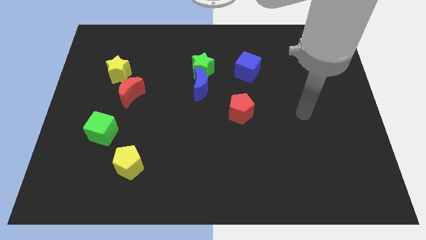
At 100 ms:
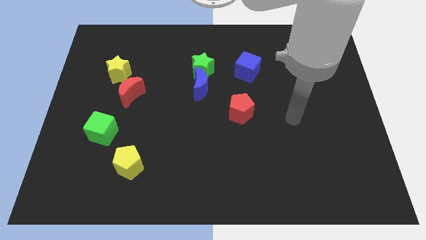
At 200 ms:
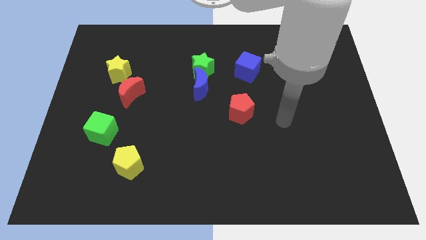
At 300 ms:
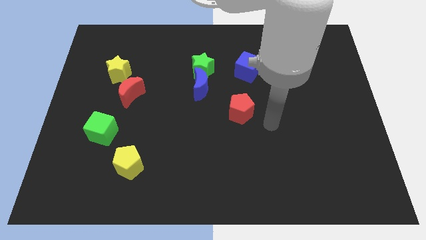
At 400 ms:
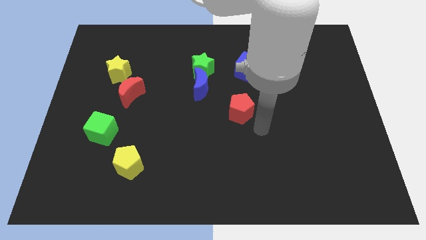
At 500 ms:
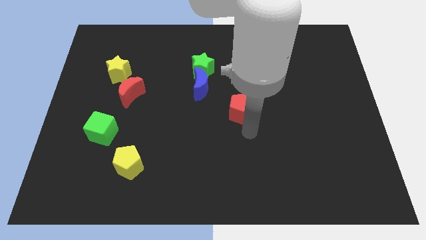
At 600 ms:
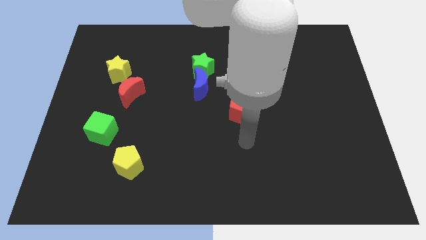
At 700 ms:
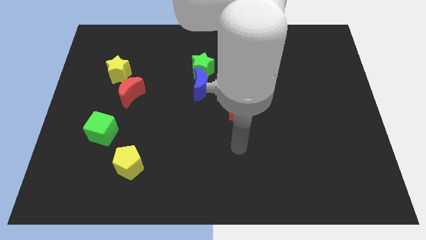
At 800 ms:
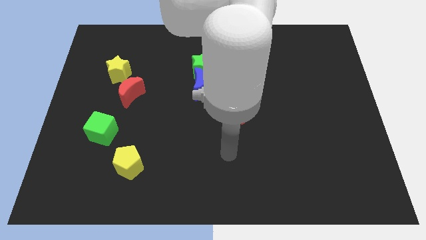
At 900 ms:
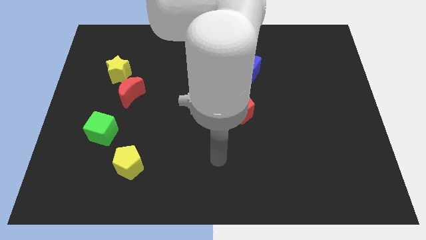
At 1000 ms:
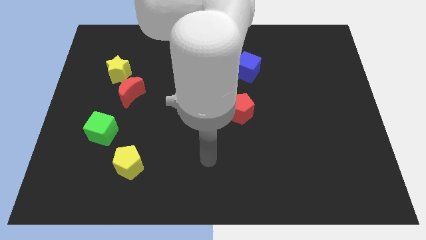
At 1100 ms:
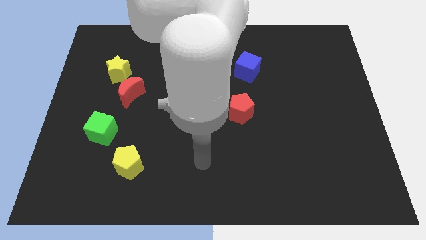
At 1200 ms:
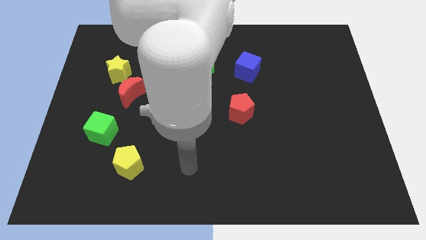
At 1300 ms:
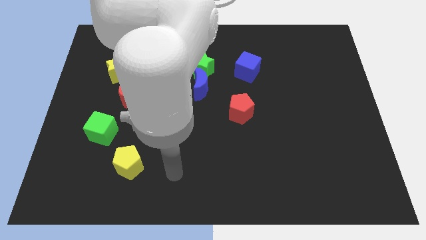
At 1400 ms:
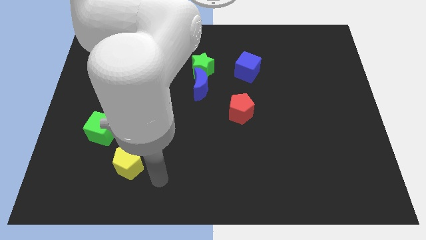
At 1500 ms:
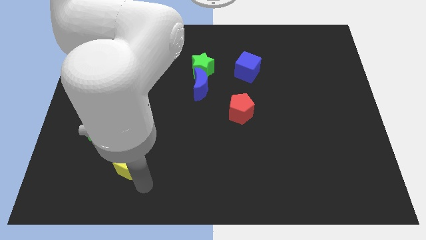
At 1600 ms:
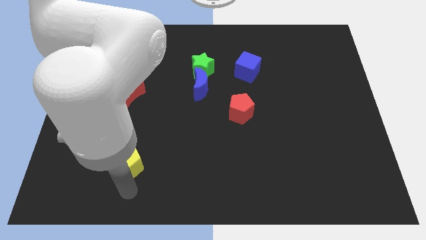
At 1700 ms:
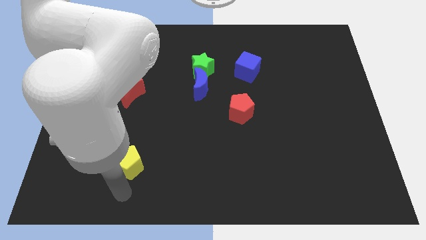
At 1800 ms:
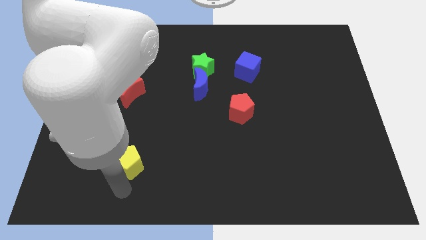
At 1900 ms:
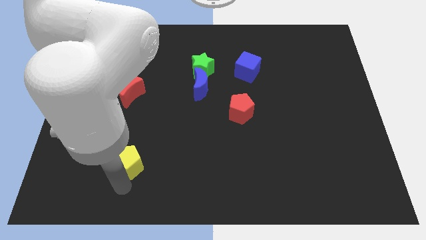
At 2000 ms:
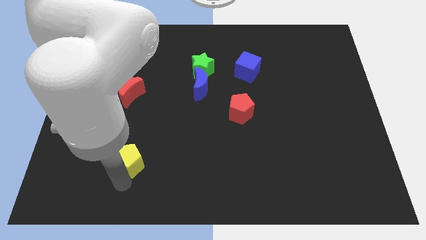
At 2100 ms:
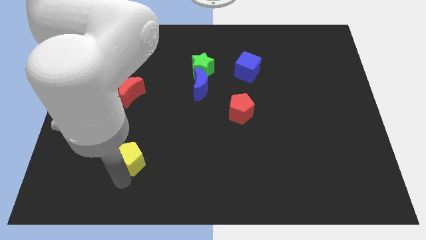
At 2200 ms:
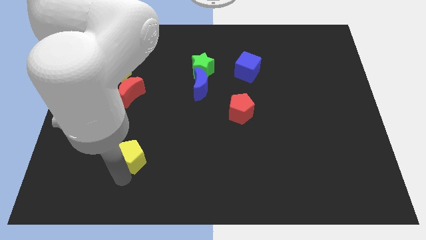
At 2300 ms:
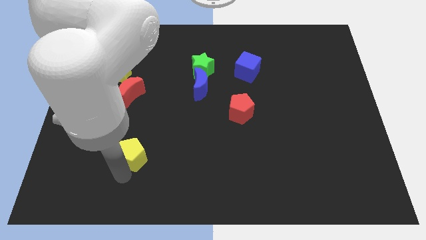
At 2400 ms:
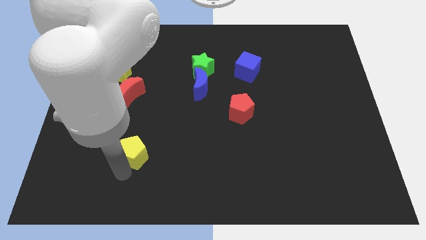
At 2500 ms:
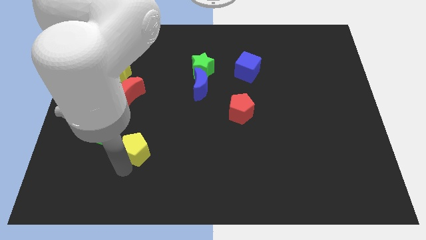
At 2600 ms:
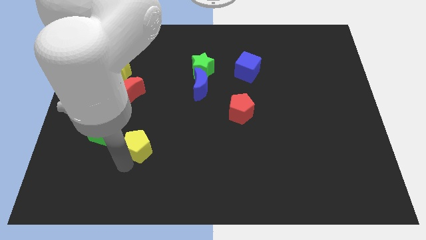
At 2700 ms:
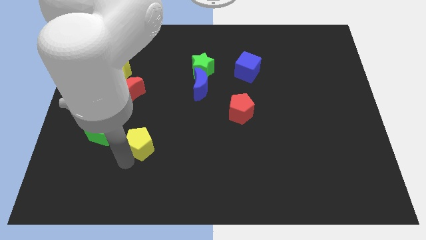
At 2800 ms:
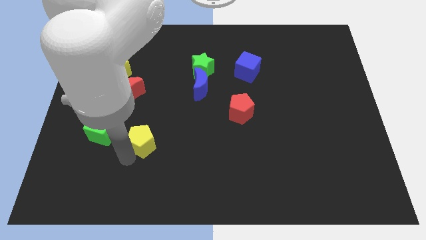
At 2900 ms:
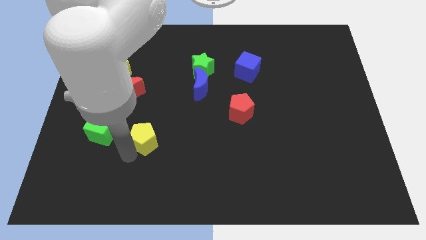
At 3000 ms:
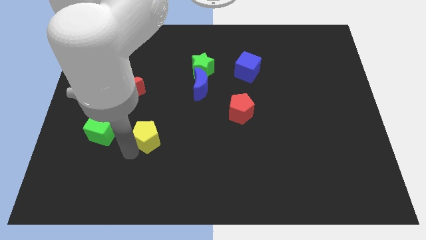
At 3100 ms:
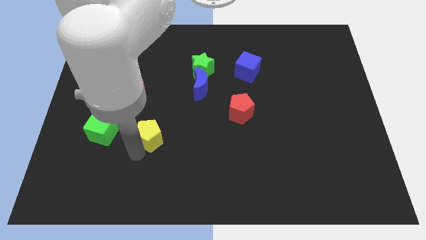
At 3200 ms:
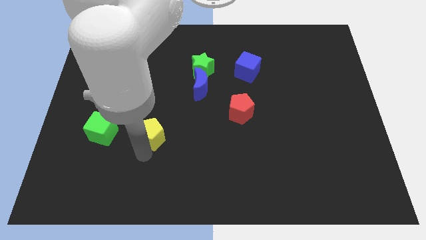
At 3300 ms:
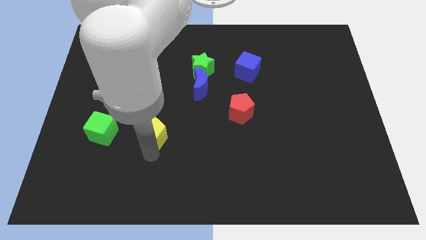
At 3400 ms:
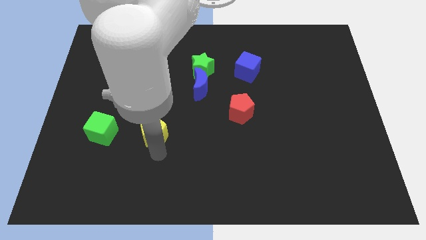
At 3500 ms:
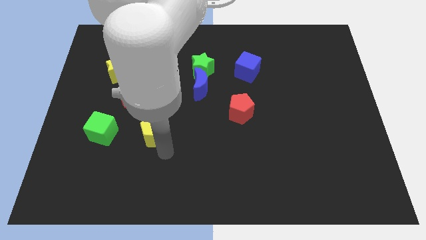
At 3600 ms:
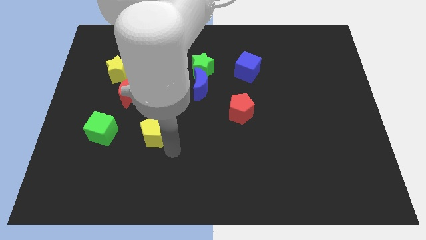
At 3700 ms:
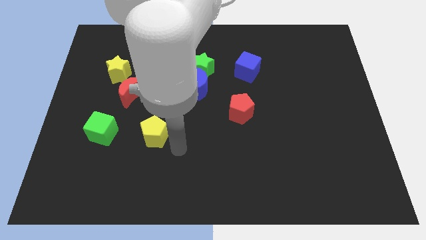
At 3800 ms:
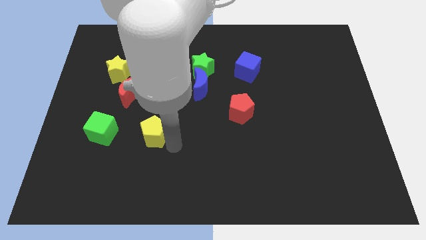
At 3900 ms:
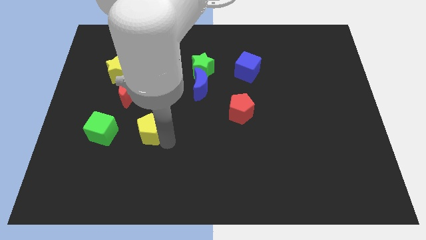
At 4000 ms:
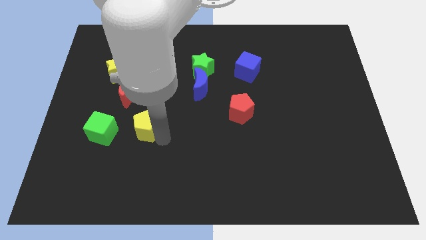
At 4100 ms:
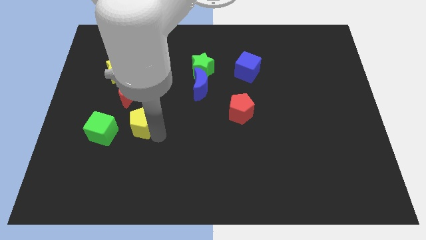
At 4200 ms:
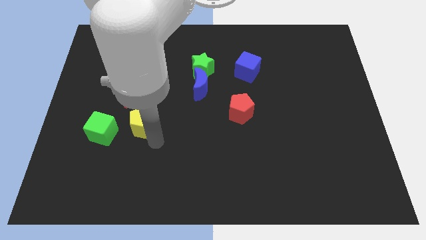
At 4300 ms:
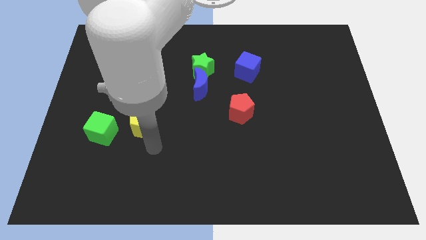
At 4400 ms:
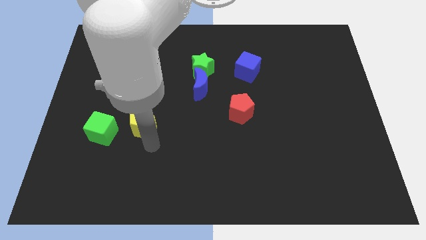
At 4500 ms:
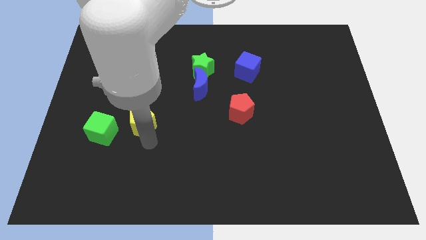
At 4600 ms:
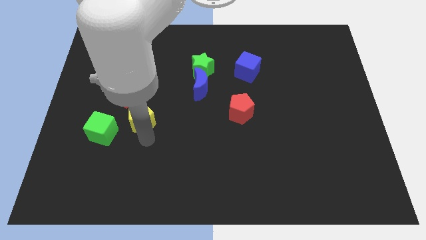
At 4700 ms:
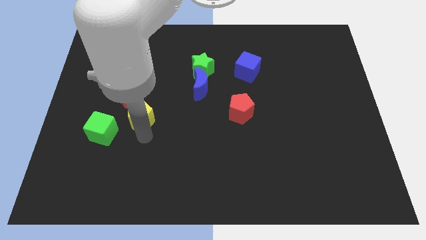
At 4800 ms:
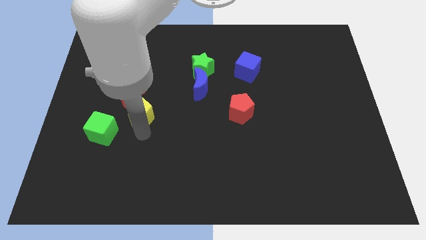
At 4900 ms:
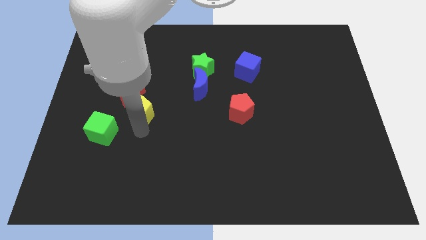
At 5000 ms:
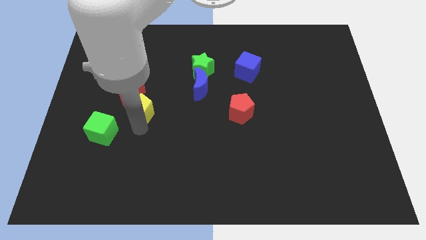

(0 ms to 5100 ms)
push the yellow pentagon to the red moon

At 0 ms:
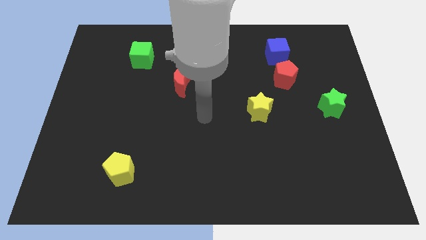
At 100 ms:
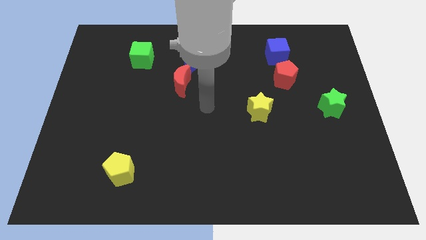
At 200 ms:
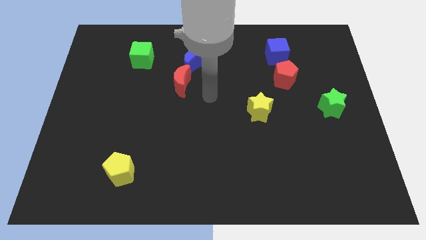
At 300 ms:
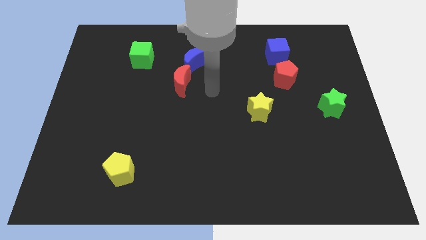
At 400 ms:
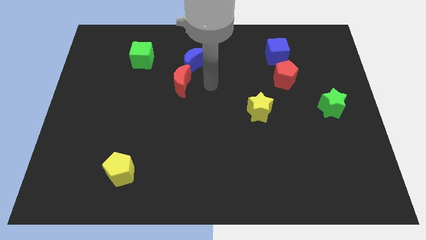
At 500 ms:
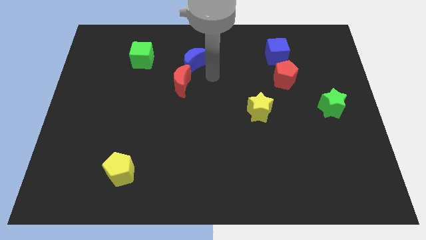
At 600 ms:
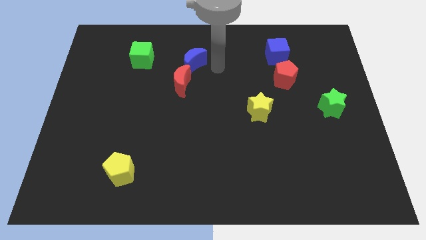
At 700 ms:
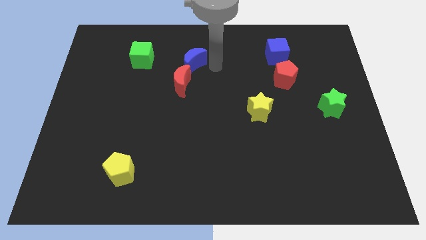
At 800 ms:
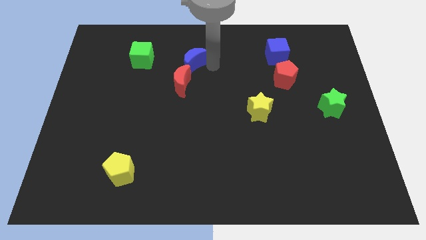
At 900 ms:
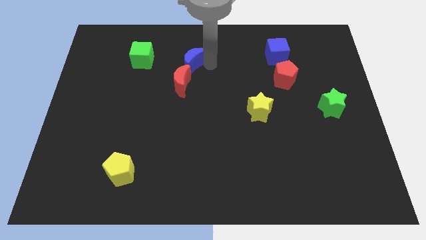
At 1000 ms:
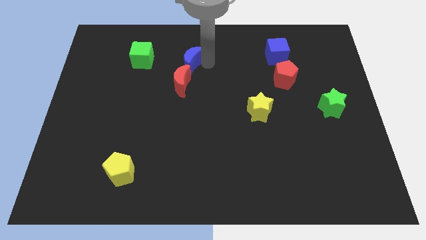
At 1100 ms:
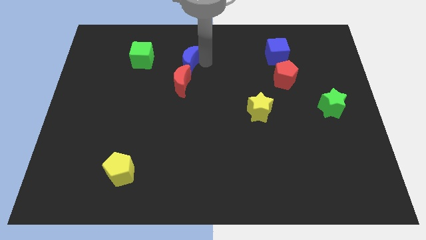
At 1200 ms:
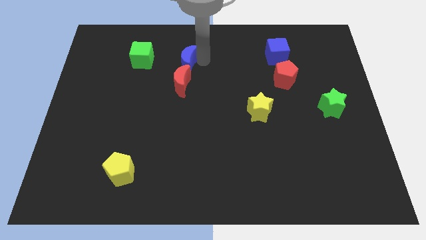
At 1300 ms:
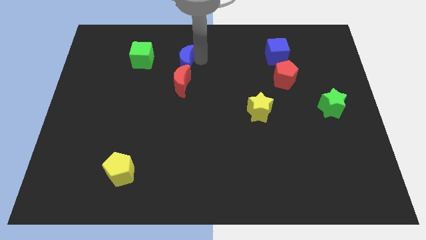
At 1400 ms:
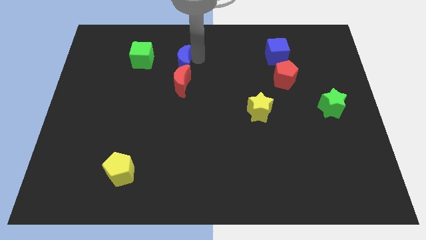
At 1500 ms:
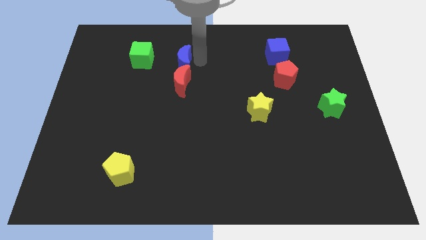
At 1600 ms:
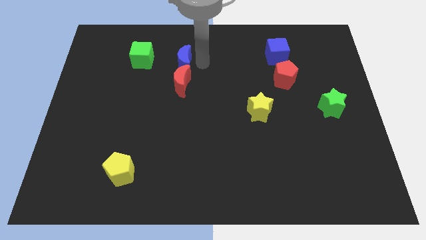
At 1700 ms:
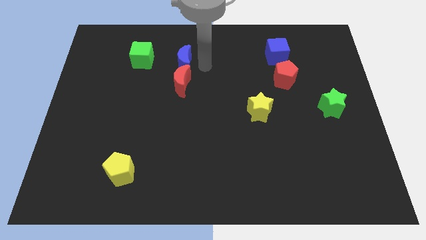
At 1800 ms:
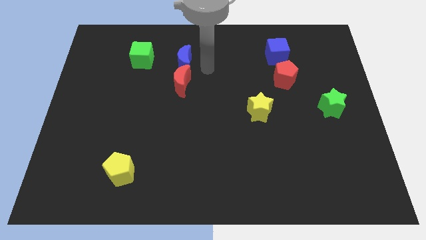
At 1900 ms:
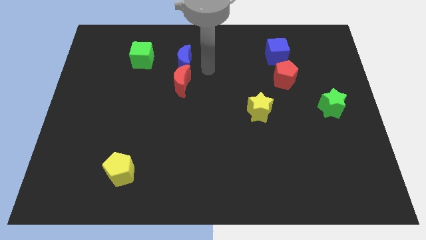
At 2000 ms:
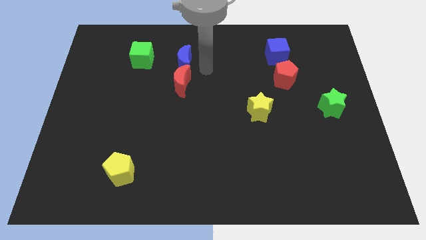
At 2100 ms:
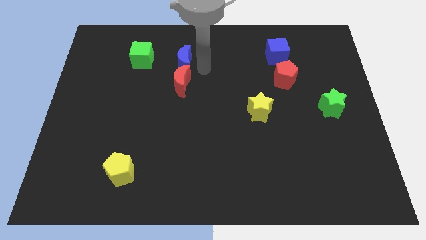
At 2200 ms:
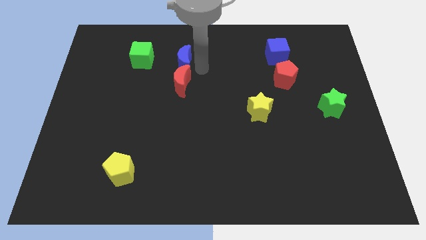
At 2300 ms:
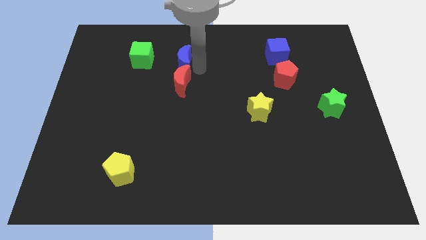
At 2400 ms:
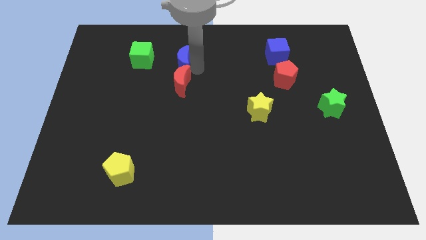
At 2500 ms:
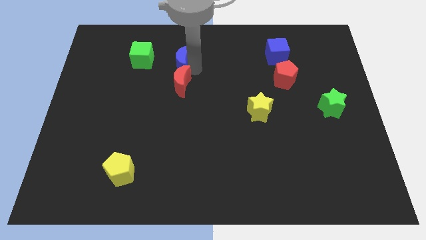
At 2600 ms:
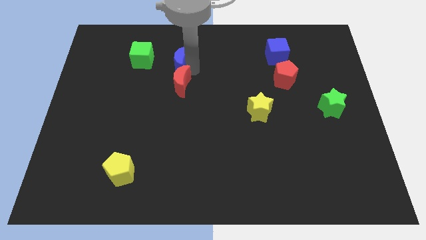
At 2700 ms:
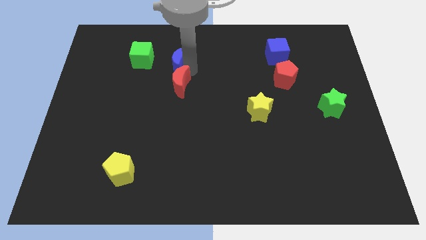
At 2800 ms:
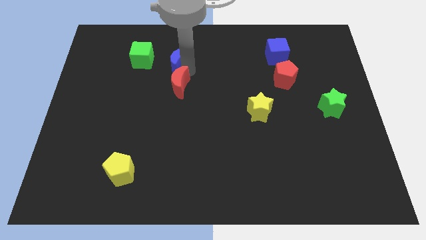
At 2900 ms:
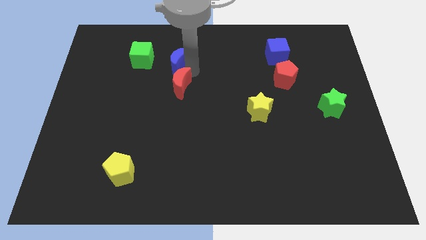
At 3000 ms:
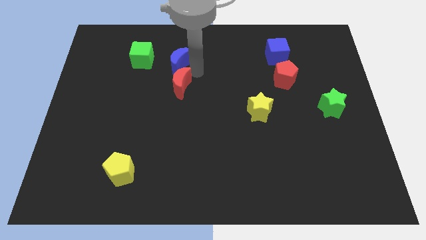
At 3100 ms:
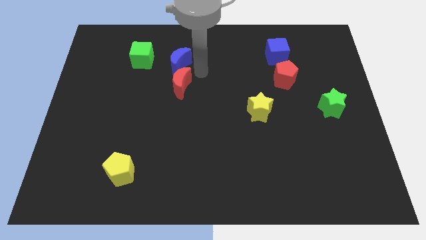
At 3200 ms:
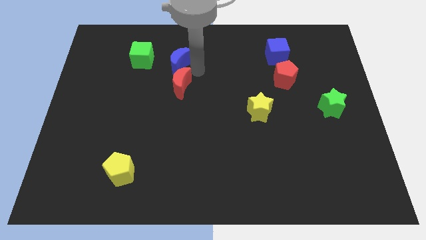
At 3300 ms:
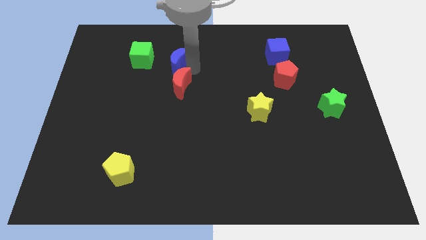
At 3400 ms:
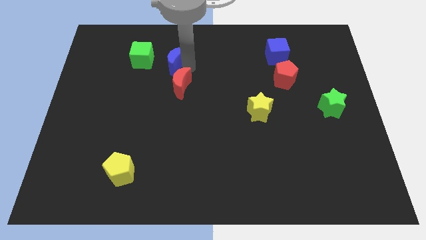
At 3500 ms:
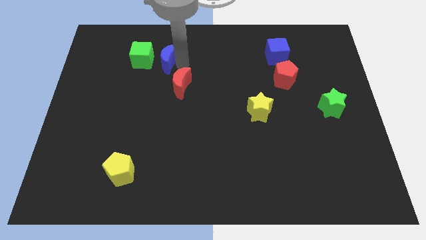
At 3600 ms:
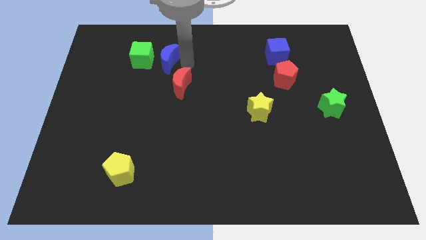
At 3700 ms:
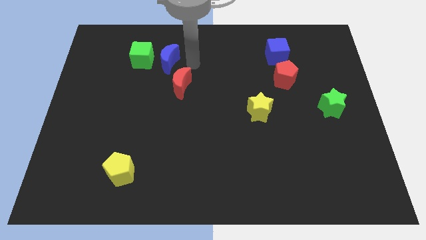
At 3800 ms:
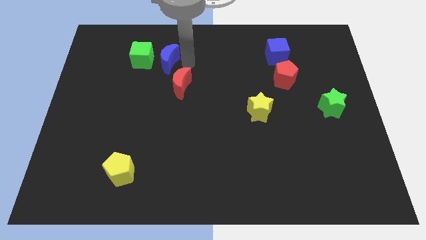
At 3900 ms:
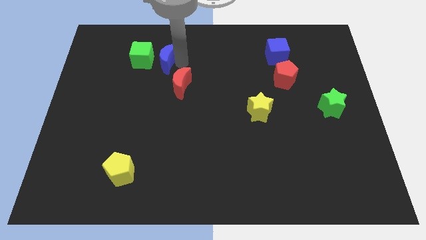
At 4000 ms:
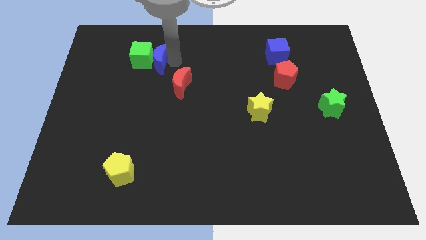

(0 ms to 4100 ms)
put the blue moon close to the green cube
